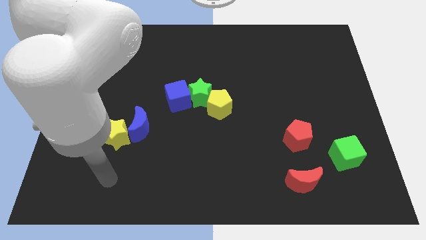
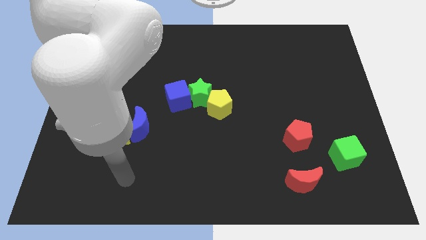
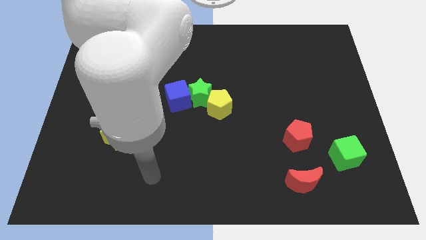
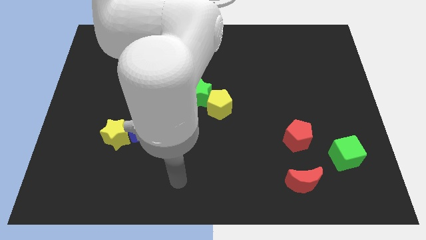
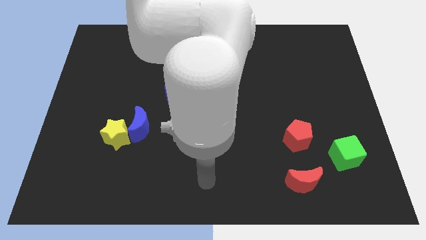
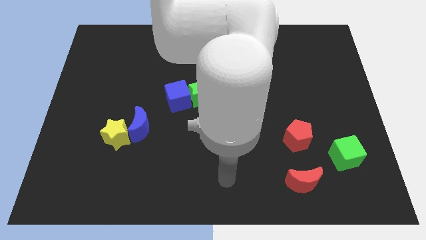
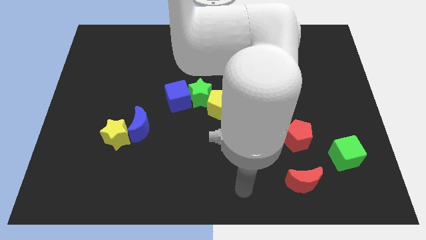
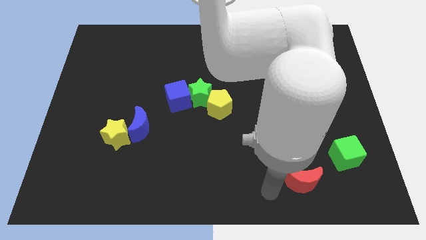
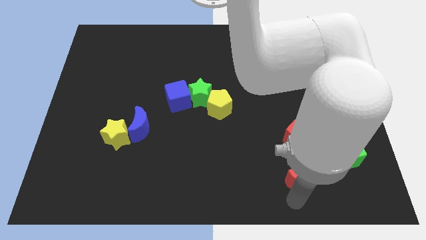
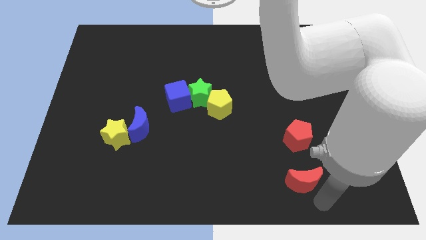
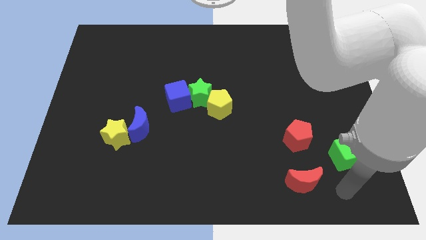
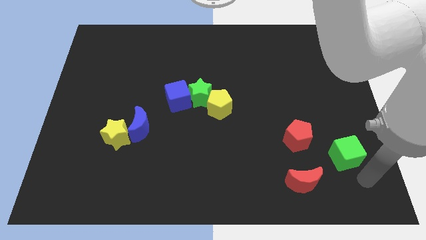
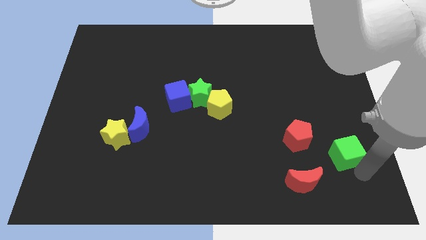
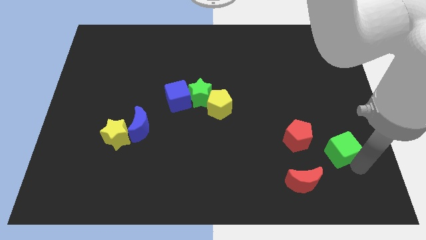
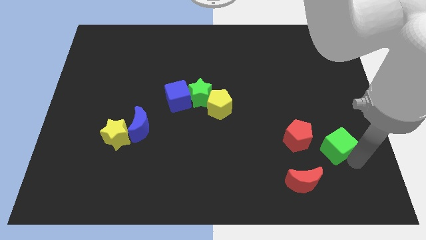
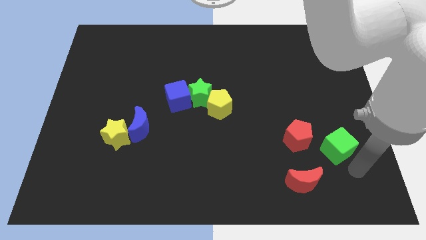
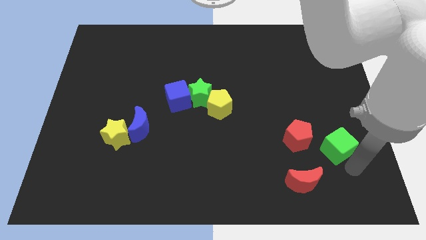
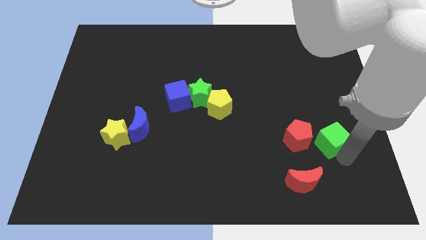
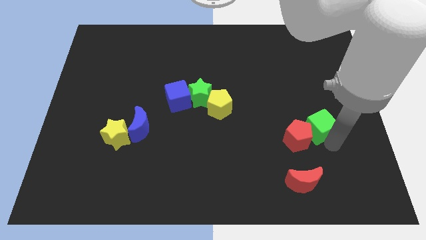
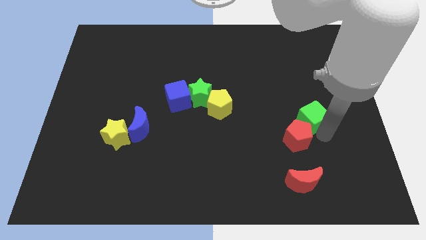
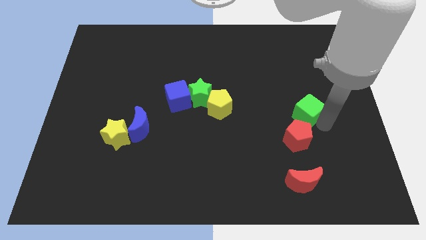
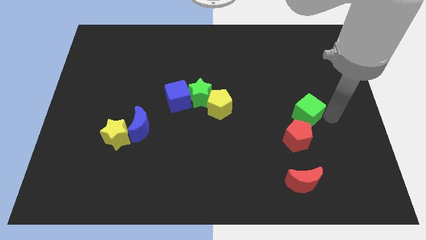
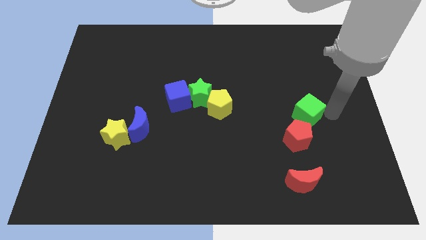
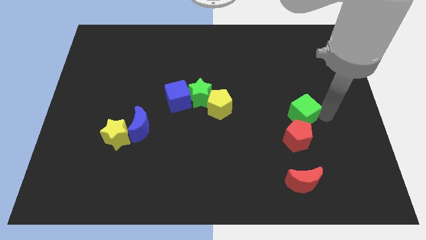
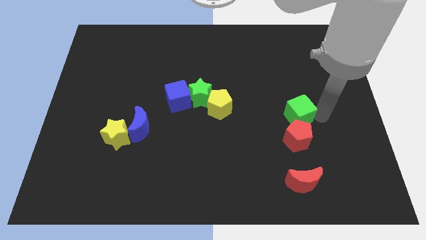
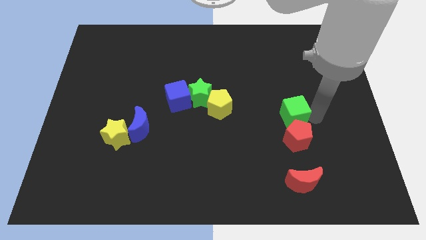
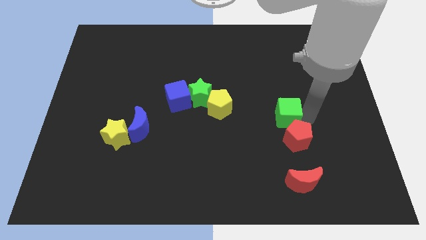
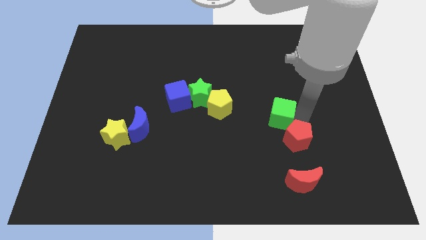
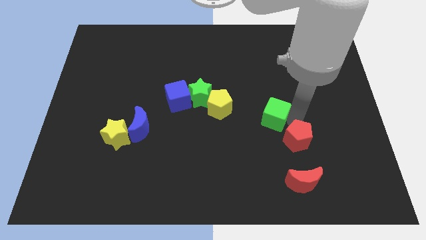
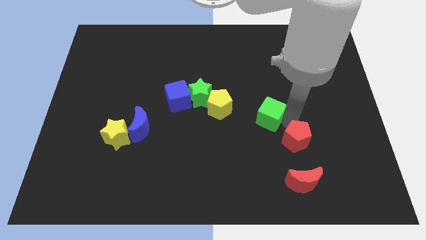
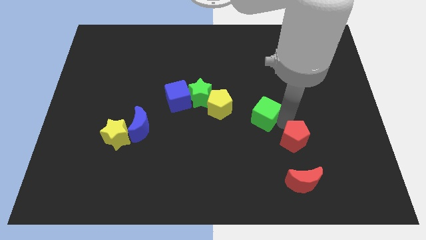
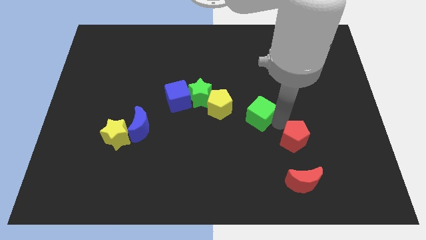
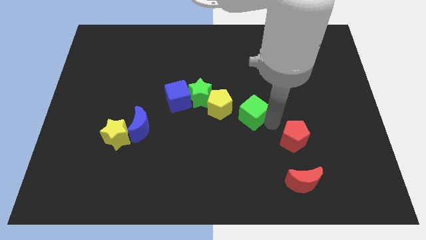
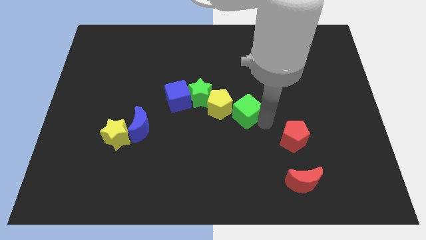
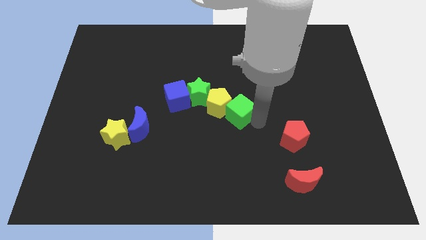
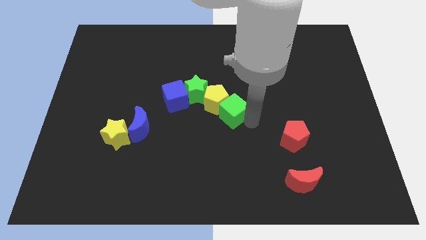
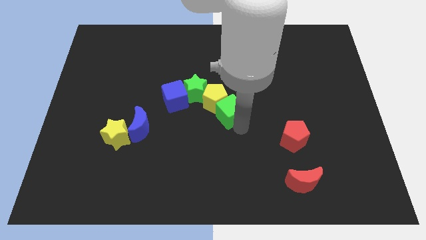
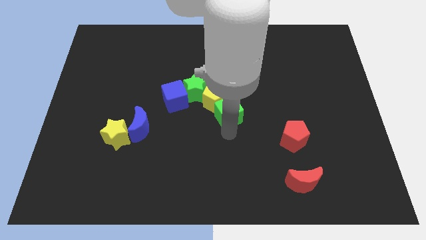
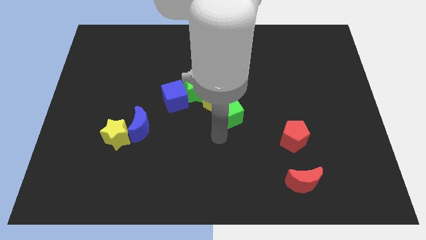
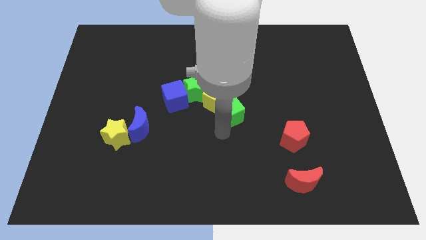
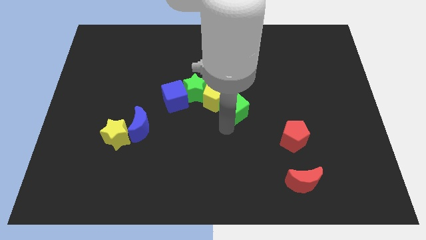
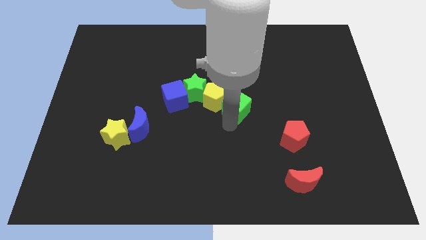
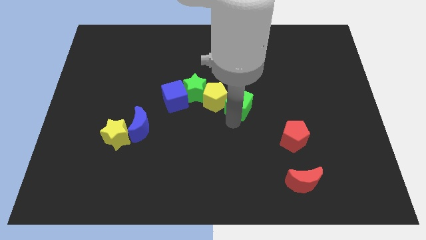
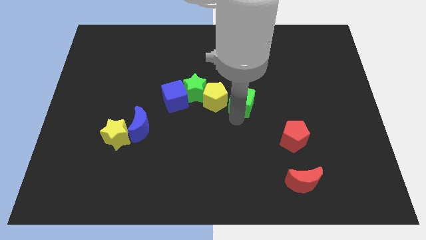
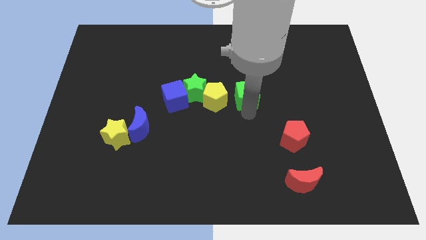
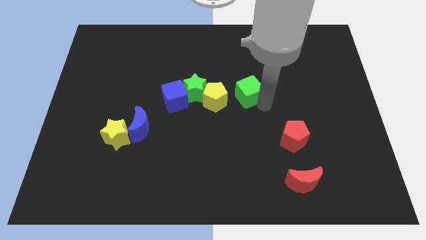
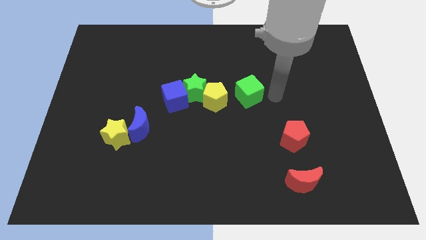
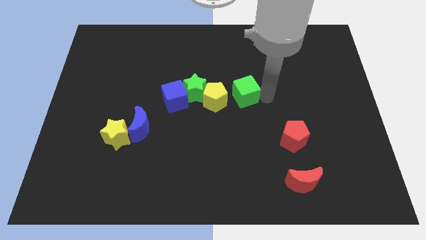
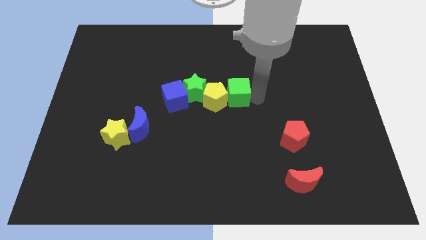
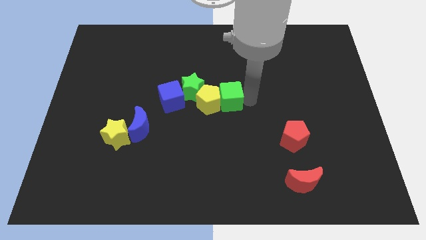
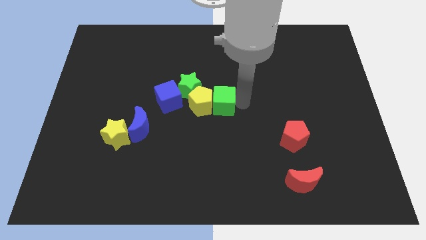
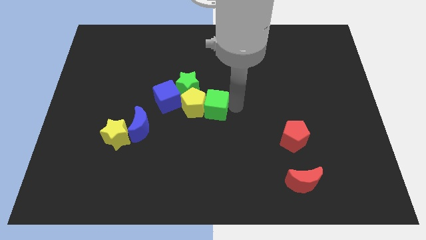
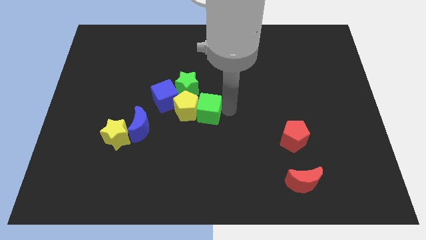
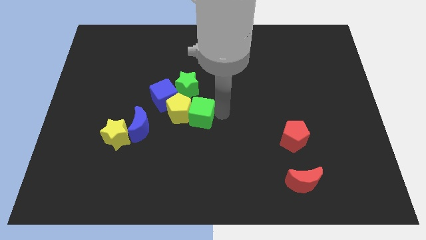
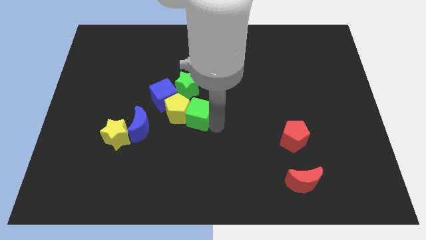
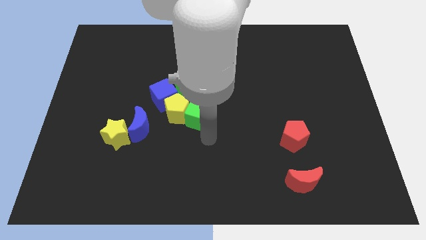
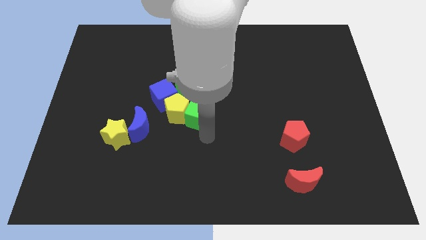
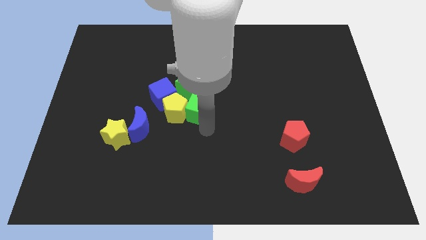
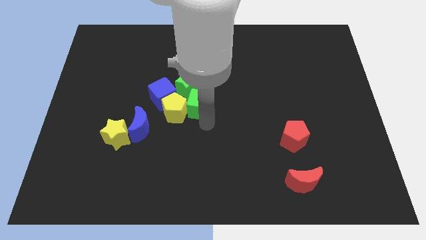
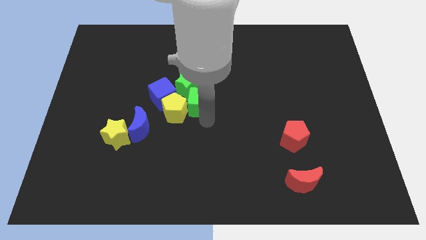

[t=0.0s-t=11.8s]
put the green cube next to the green star

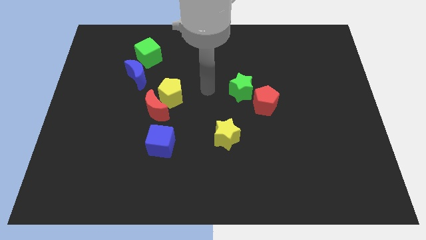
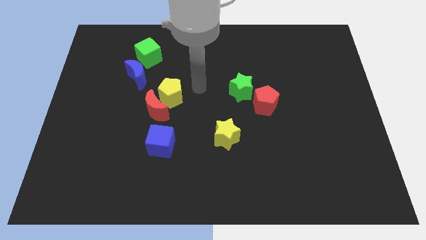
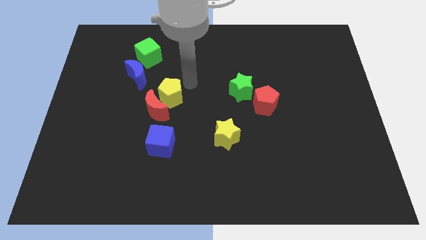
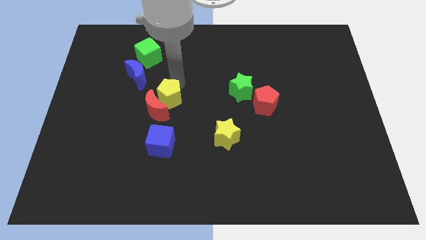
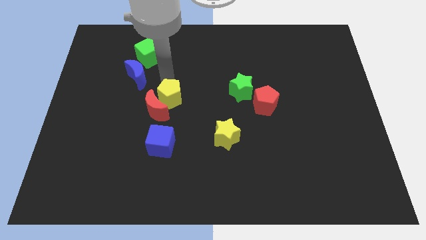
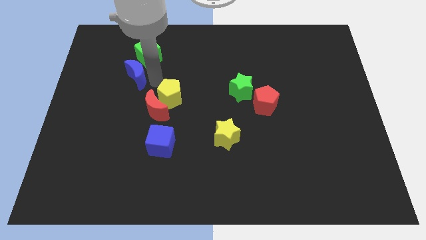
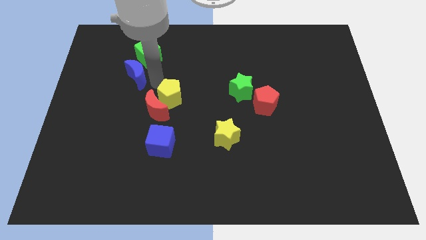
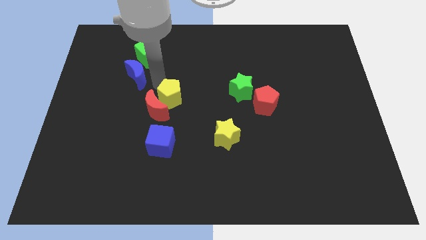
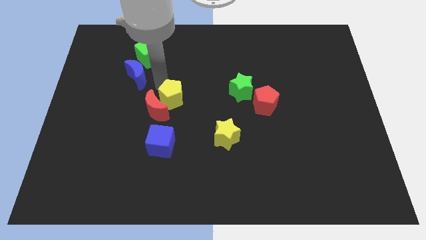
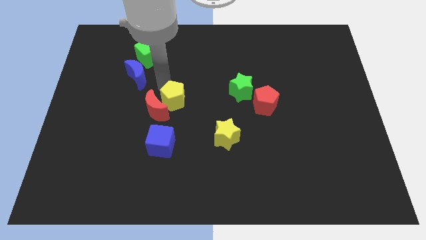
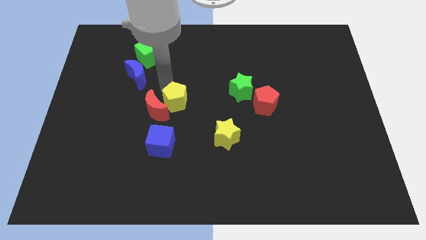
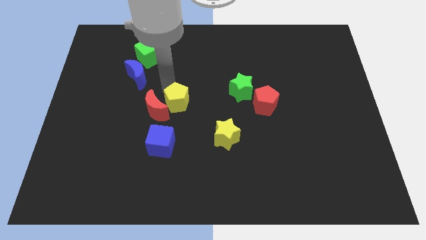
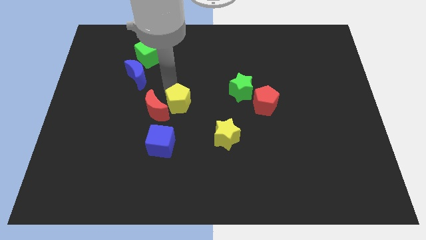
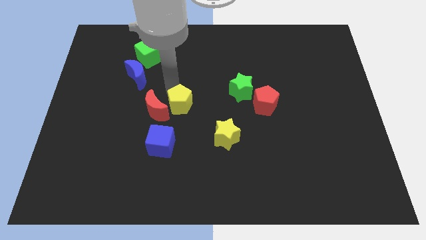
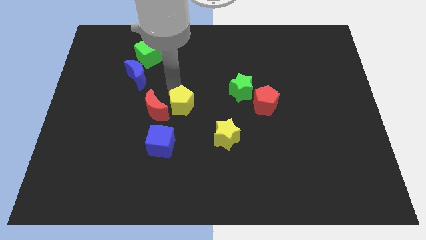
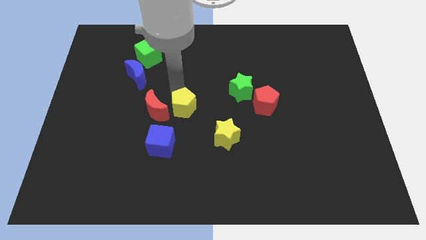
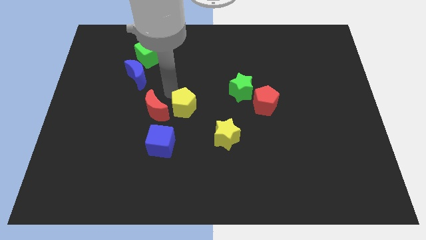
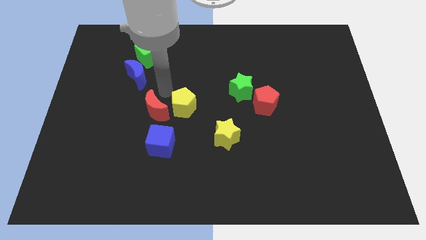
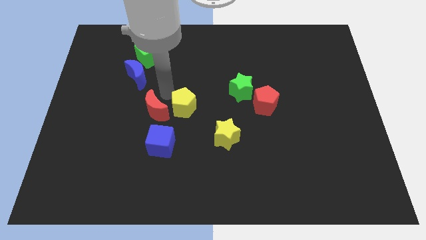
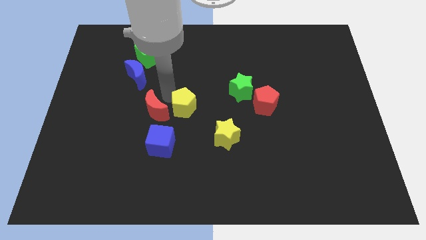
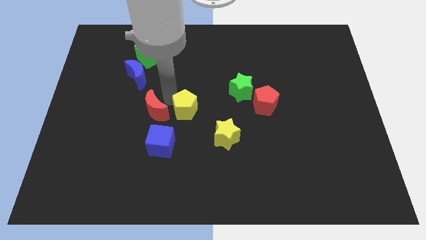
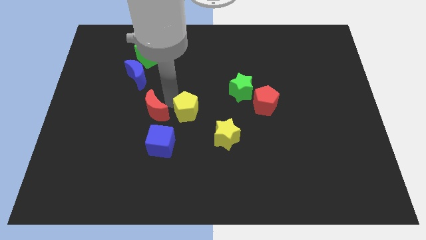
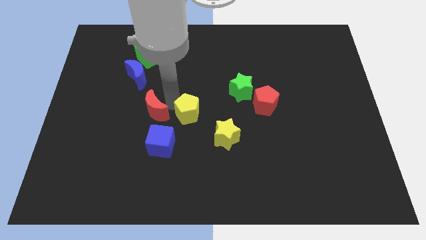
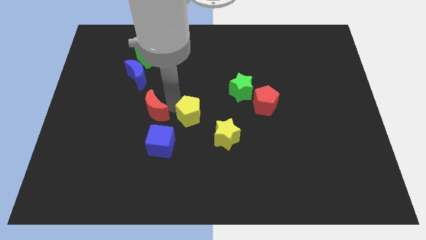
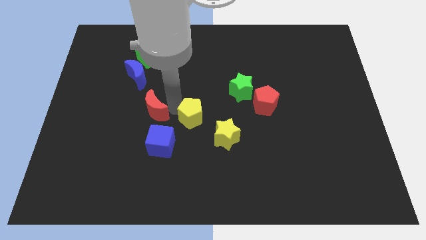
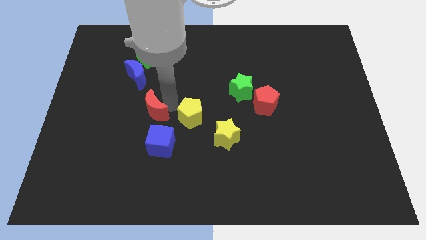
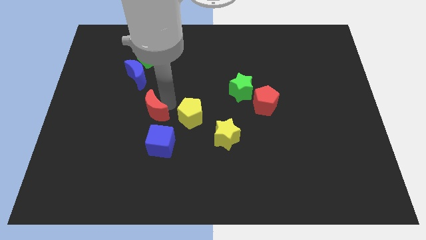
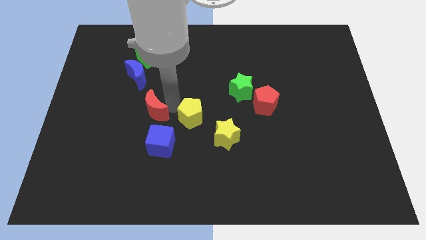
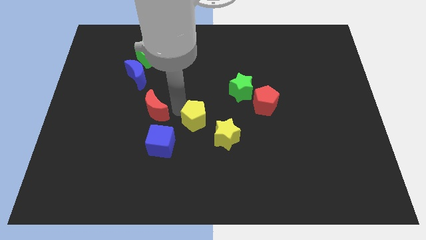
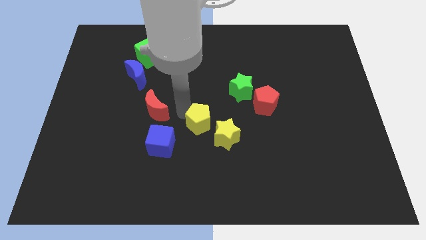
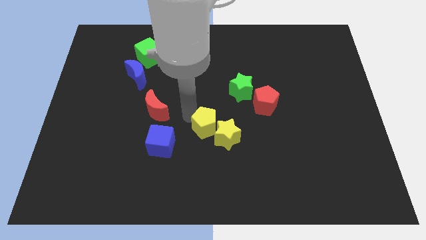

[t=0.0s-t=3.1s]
push the yellow pentagon next to the yellow star
